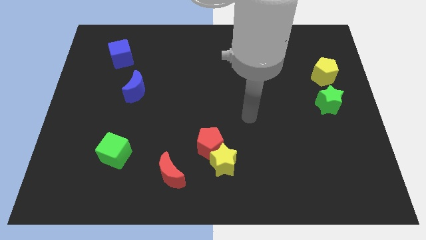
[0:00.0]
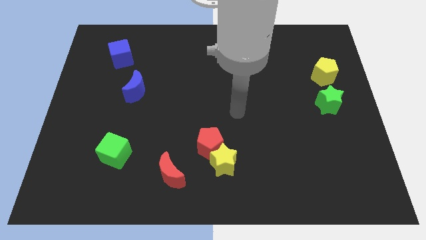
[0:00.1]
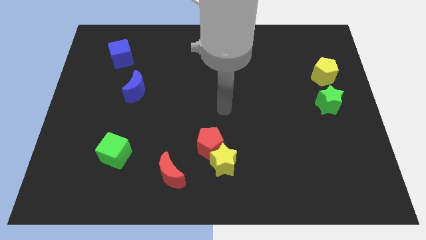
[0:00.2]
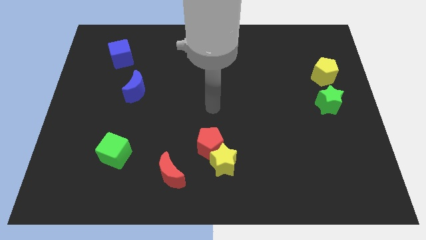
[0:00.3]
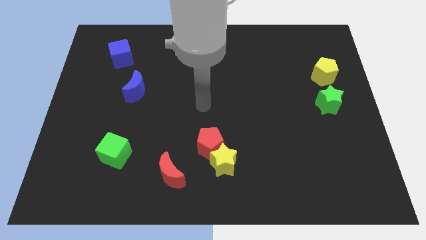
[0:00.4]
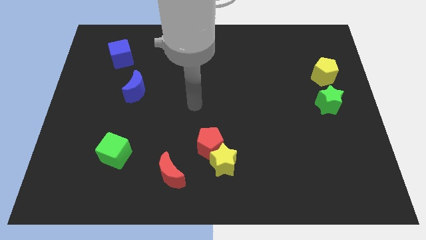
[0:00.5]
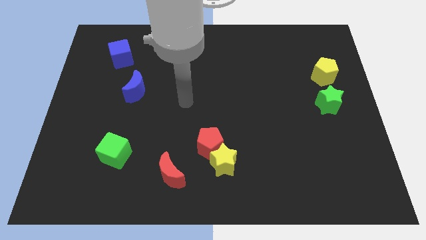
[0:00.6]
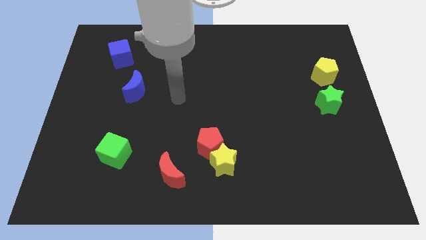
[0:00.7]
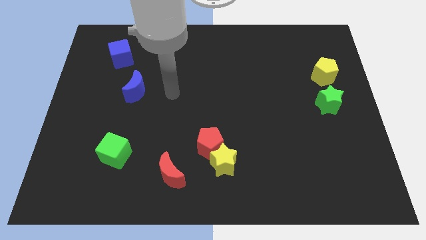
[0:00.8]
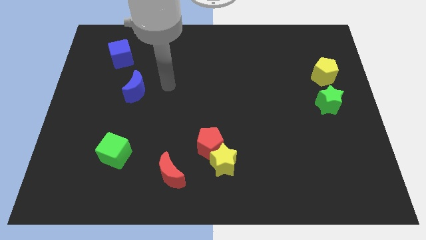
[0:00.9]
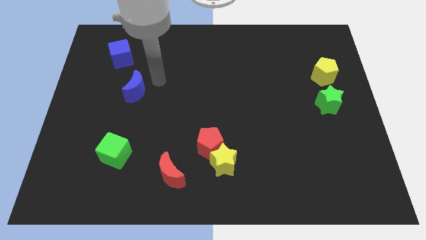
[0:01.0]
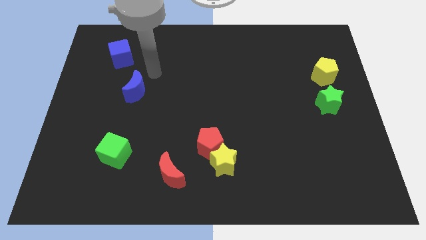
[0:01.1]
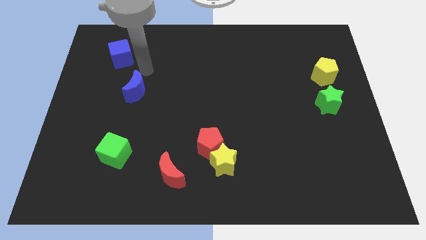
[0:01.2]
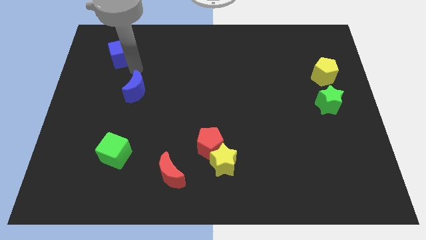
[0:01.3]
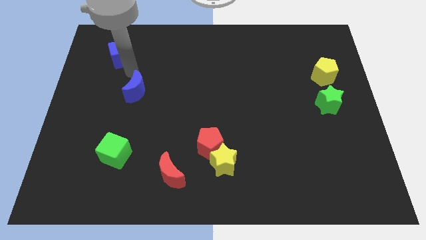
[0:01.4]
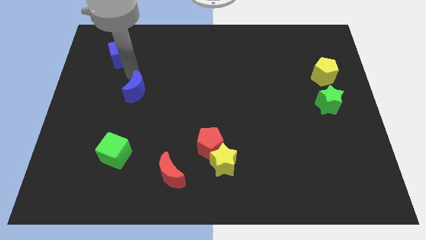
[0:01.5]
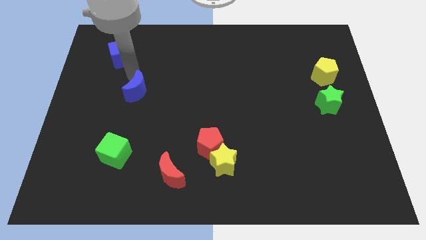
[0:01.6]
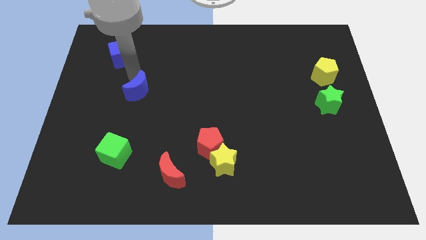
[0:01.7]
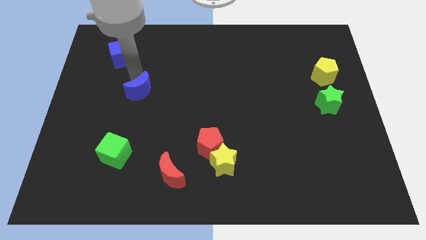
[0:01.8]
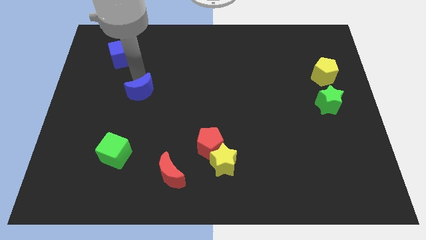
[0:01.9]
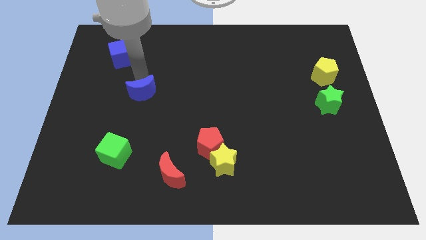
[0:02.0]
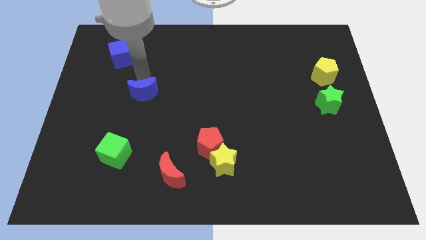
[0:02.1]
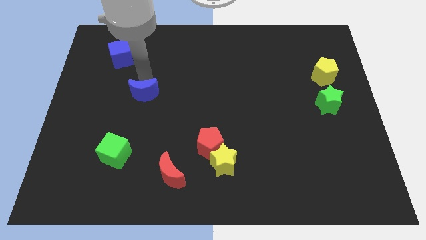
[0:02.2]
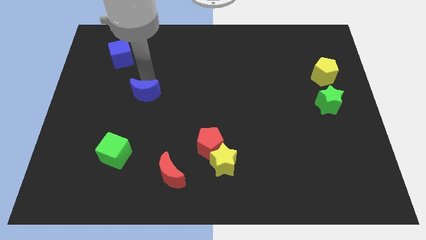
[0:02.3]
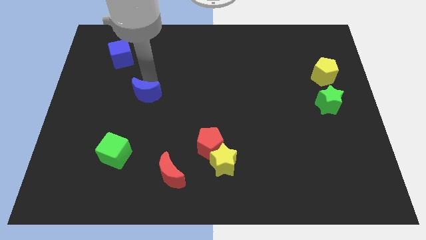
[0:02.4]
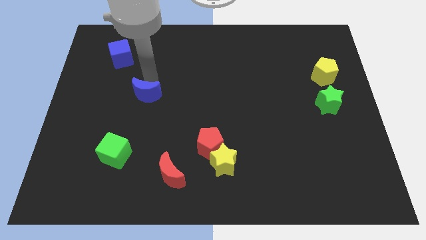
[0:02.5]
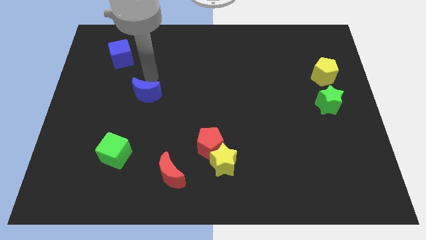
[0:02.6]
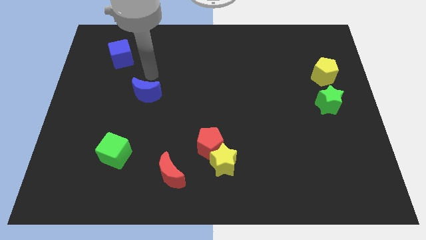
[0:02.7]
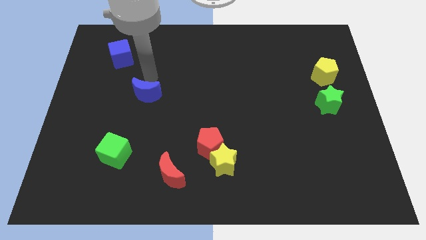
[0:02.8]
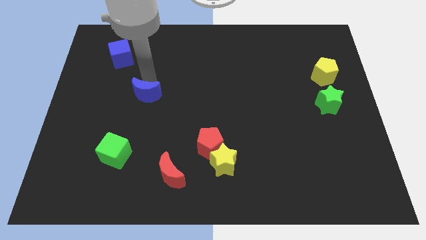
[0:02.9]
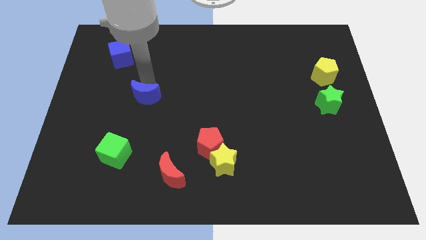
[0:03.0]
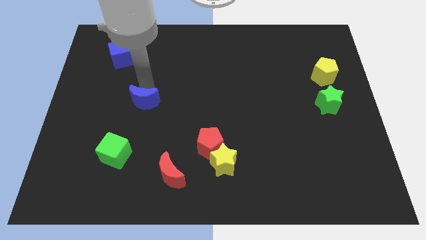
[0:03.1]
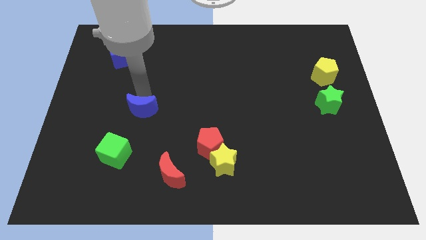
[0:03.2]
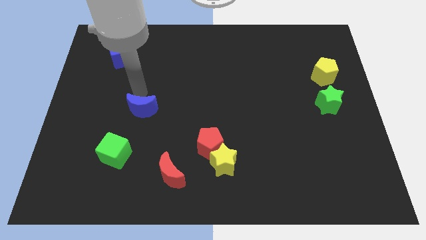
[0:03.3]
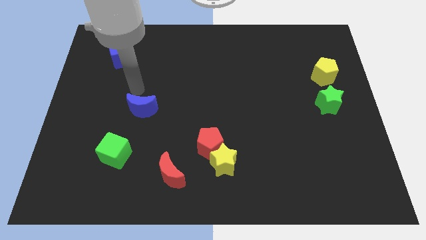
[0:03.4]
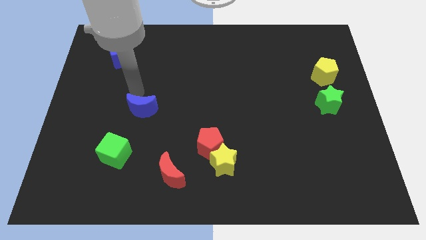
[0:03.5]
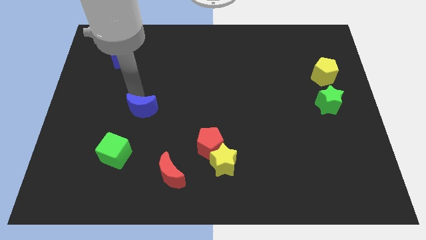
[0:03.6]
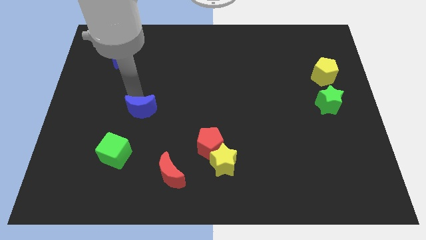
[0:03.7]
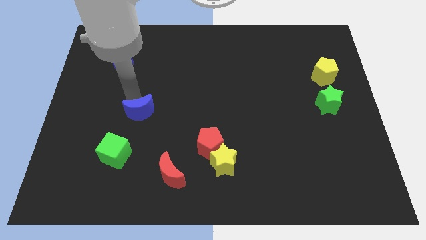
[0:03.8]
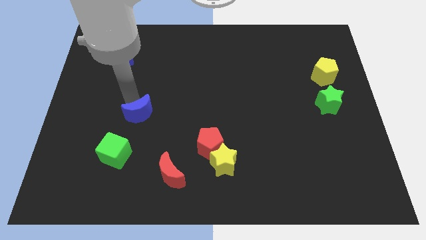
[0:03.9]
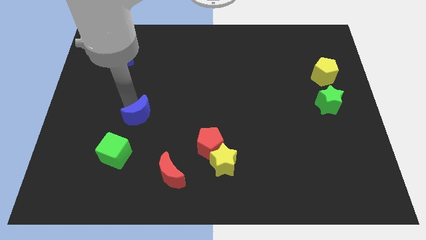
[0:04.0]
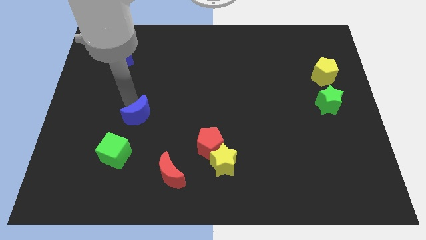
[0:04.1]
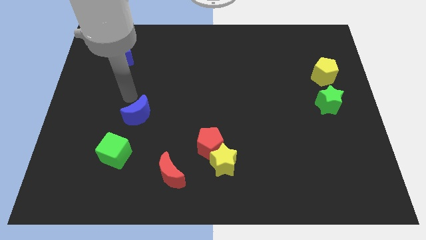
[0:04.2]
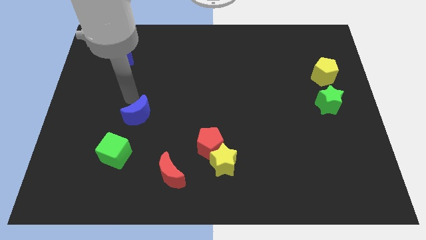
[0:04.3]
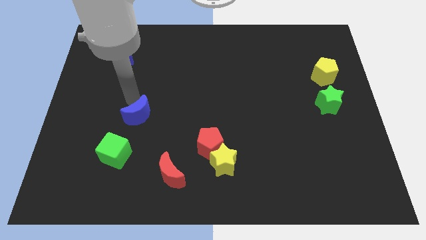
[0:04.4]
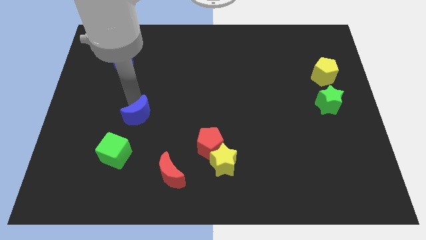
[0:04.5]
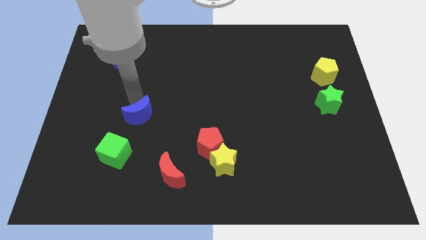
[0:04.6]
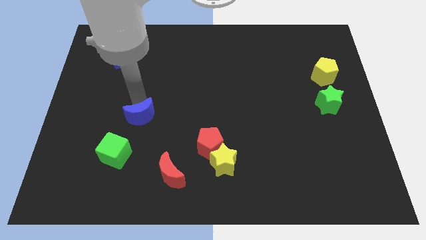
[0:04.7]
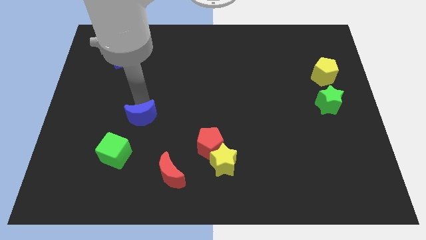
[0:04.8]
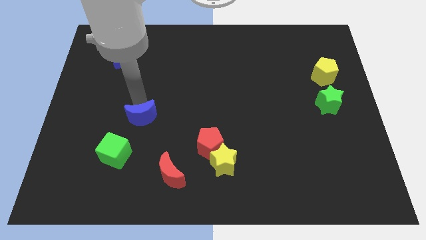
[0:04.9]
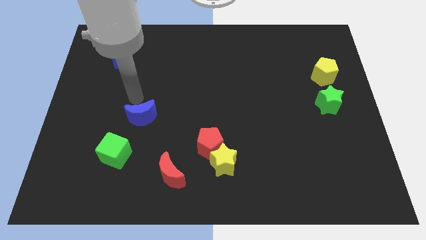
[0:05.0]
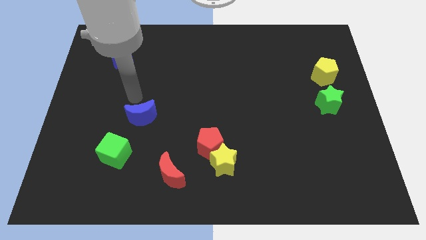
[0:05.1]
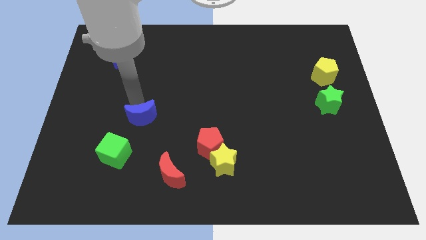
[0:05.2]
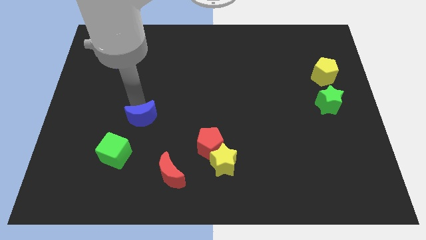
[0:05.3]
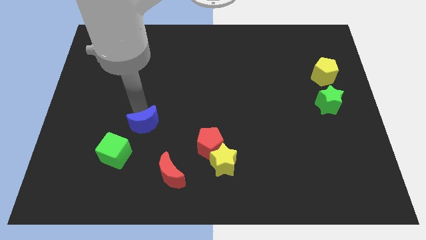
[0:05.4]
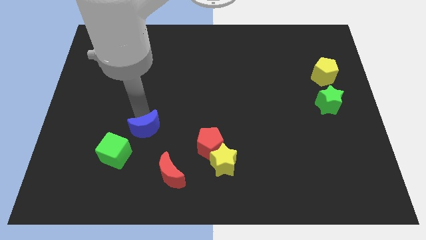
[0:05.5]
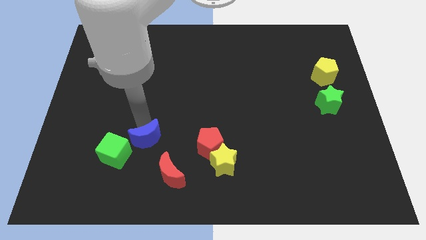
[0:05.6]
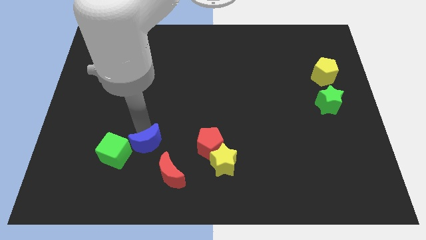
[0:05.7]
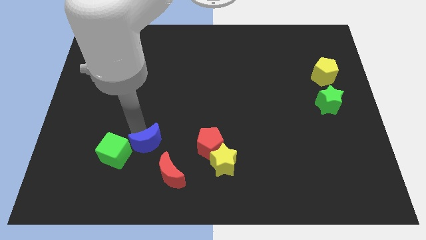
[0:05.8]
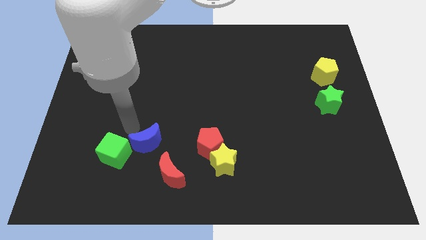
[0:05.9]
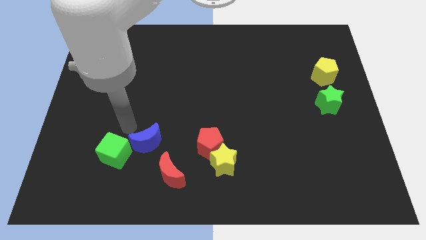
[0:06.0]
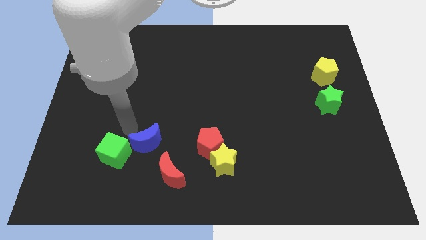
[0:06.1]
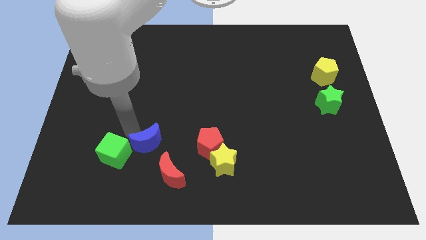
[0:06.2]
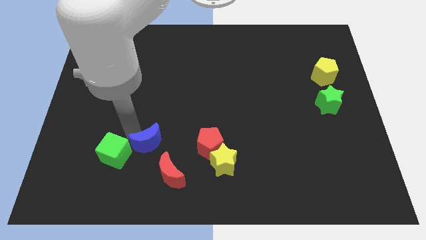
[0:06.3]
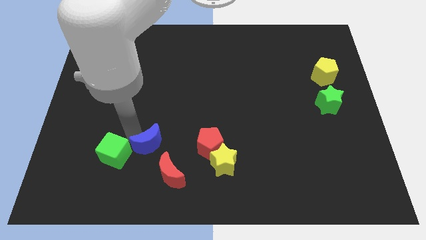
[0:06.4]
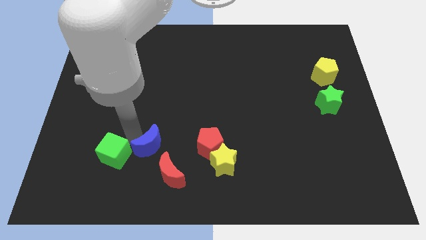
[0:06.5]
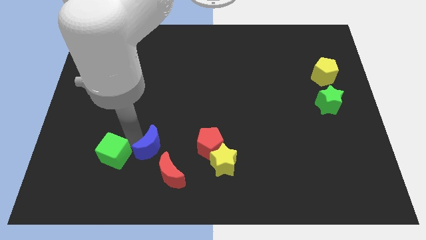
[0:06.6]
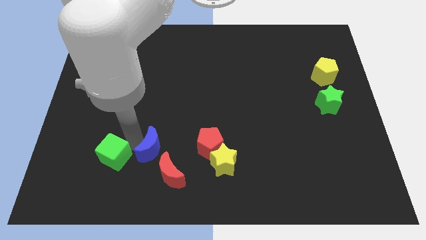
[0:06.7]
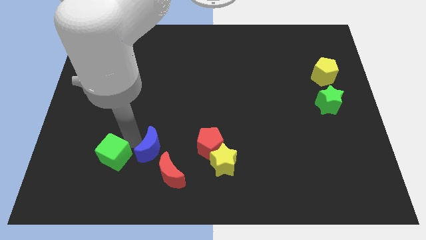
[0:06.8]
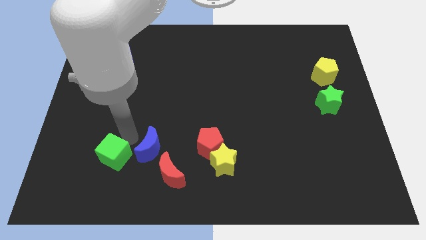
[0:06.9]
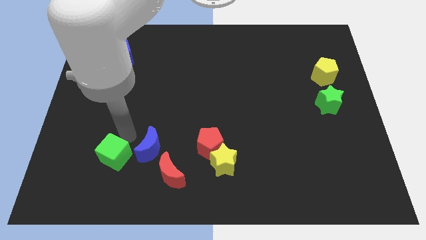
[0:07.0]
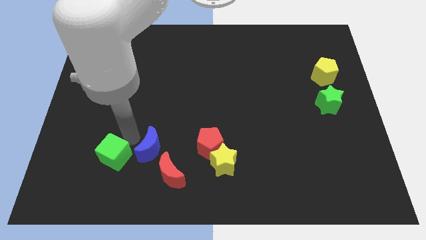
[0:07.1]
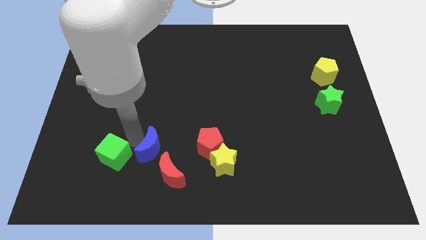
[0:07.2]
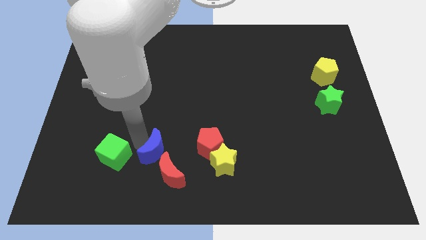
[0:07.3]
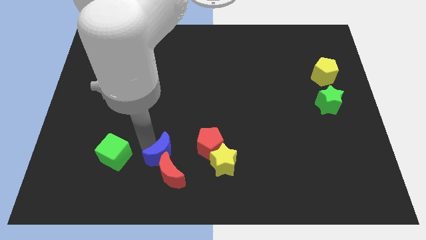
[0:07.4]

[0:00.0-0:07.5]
slide the blue moon towards the red moon
